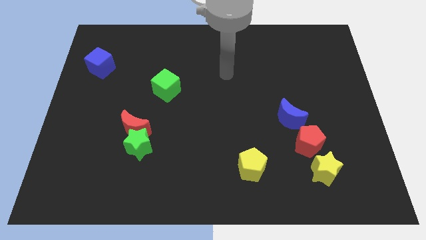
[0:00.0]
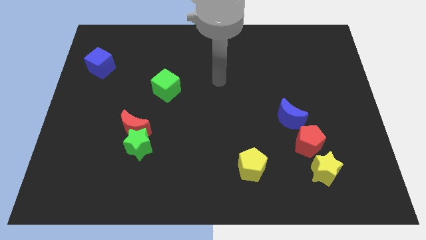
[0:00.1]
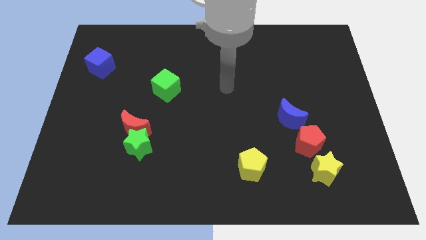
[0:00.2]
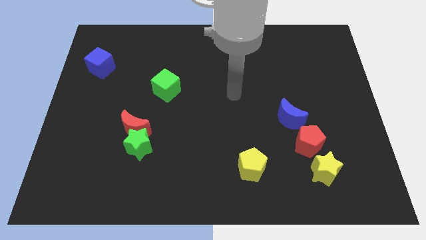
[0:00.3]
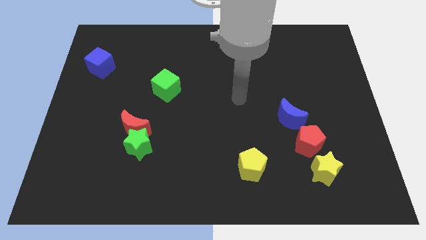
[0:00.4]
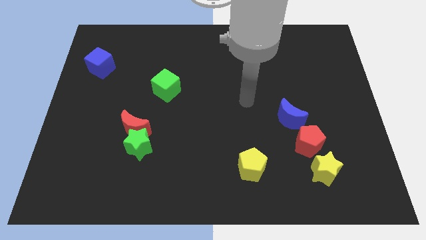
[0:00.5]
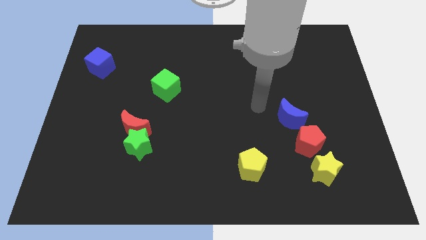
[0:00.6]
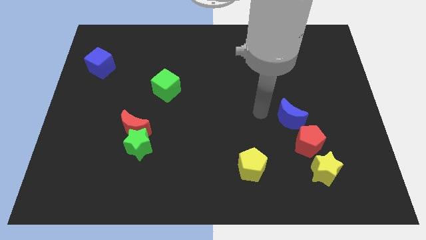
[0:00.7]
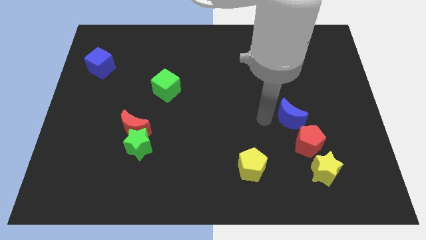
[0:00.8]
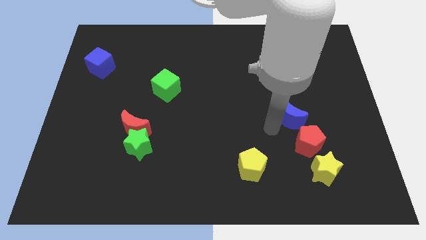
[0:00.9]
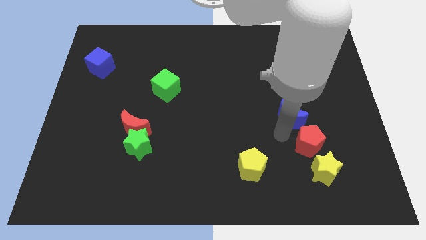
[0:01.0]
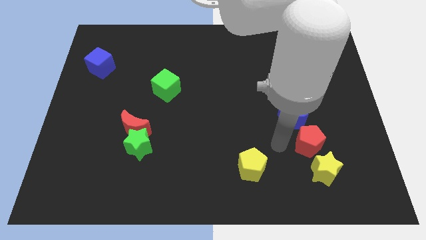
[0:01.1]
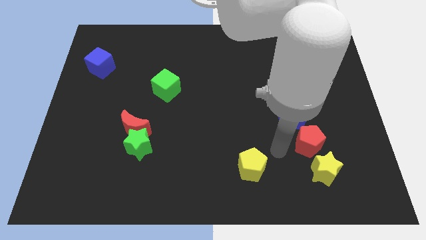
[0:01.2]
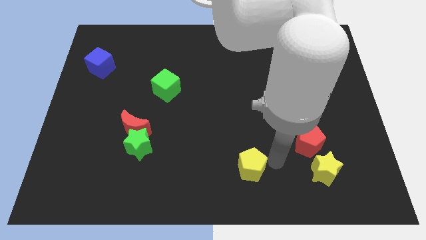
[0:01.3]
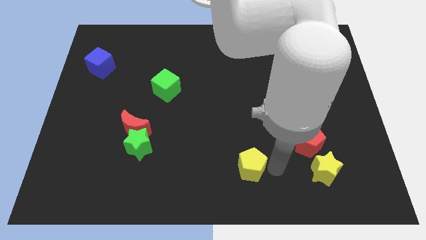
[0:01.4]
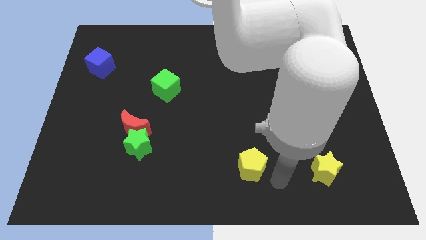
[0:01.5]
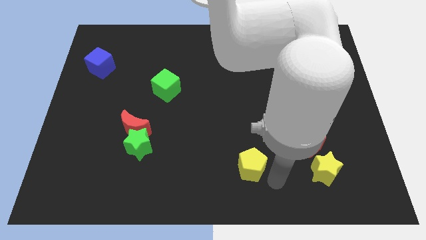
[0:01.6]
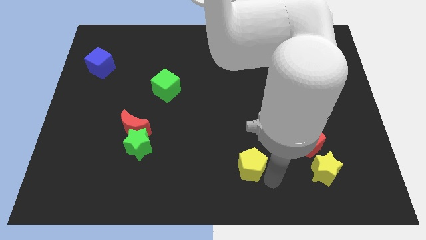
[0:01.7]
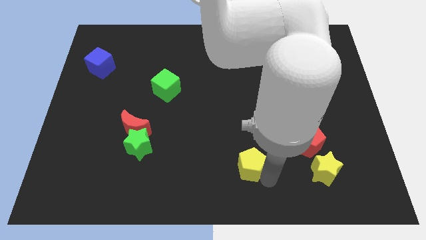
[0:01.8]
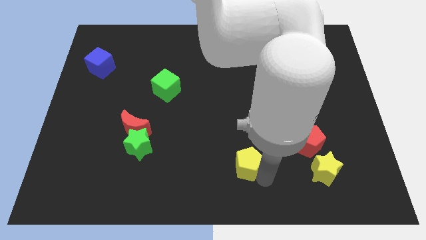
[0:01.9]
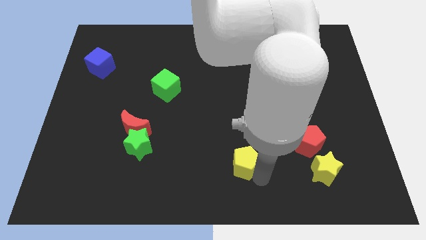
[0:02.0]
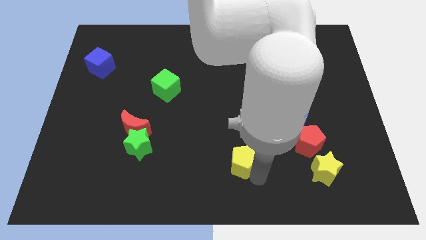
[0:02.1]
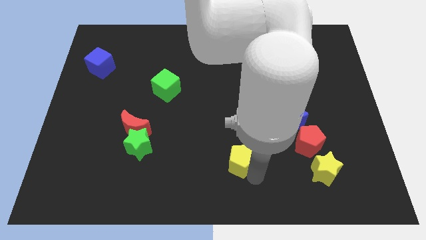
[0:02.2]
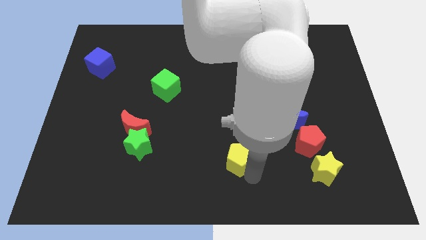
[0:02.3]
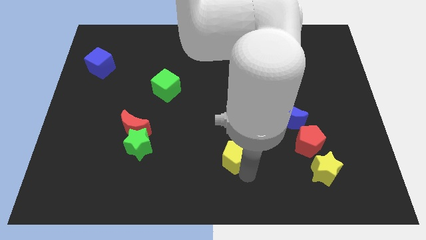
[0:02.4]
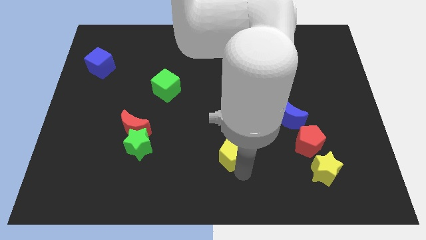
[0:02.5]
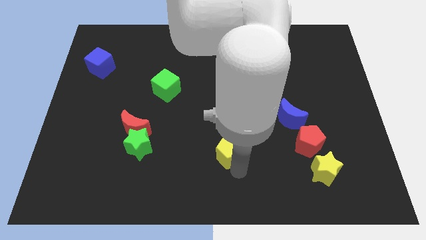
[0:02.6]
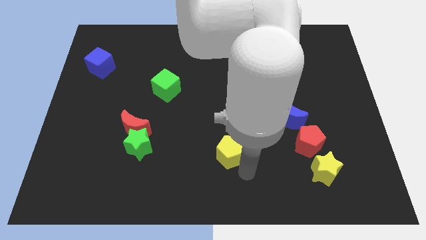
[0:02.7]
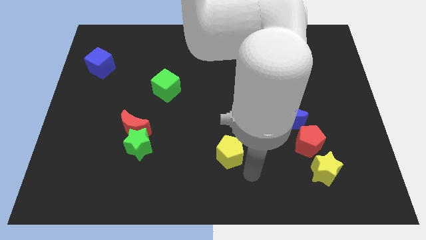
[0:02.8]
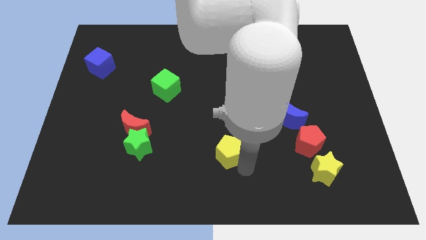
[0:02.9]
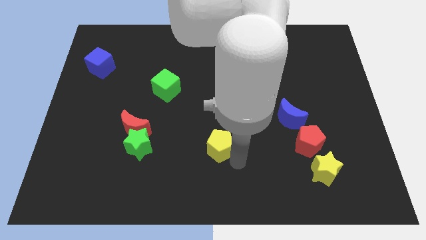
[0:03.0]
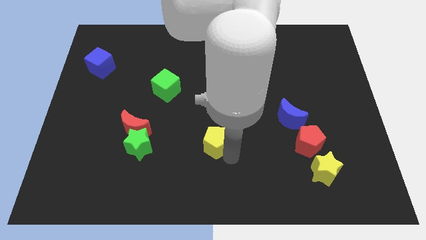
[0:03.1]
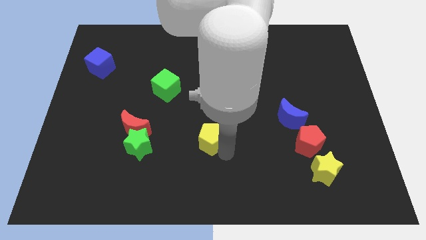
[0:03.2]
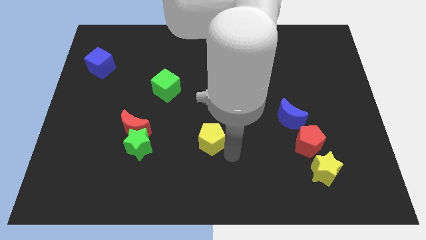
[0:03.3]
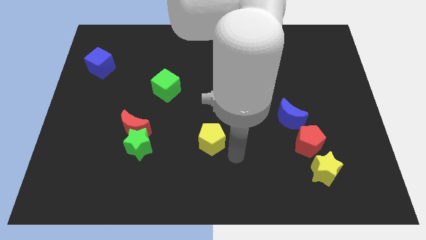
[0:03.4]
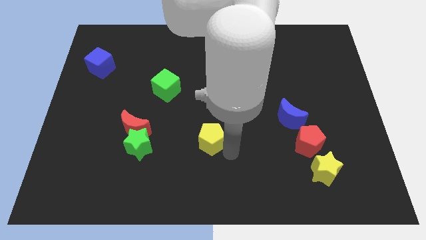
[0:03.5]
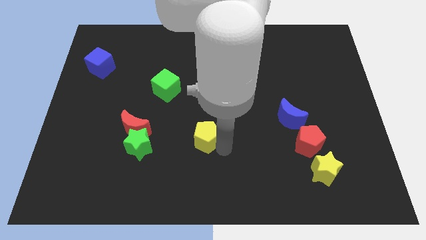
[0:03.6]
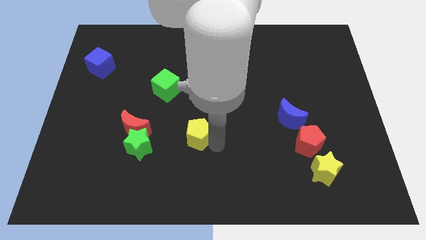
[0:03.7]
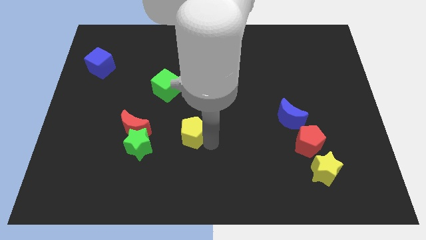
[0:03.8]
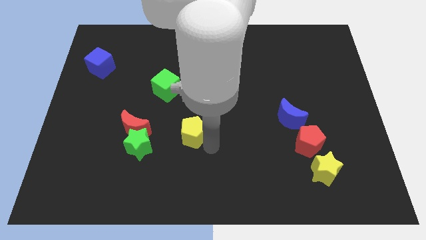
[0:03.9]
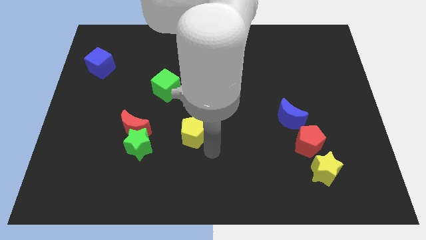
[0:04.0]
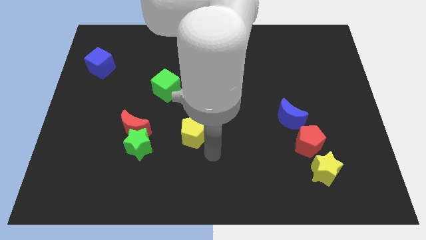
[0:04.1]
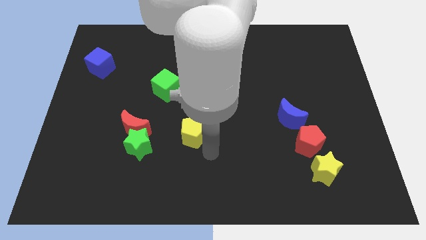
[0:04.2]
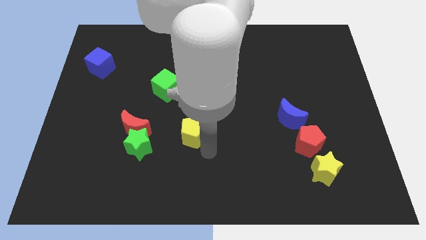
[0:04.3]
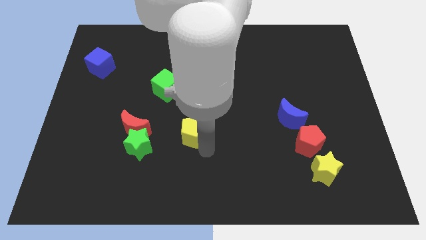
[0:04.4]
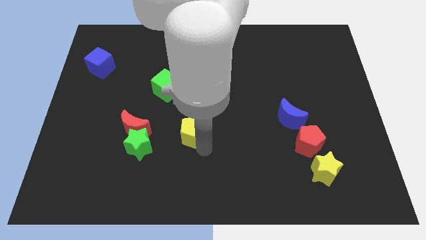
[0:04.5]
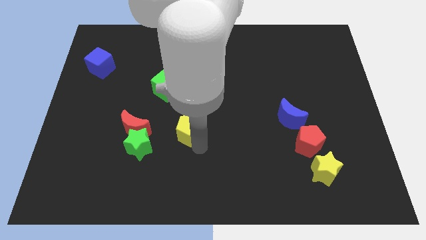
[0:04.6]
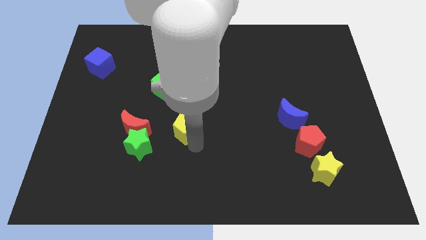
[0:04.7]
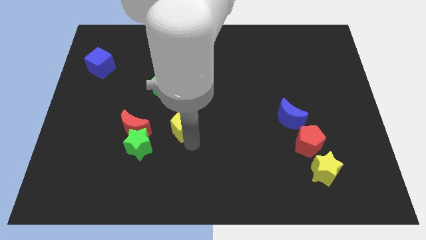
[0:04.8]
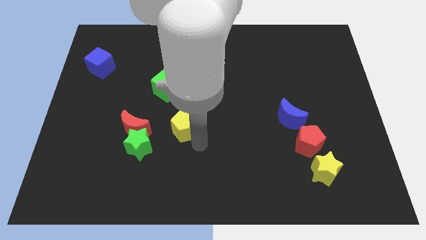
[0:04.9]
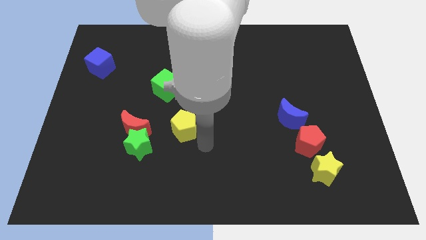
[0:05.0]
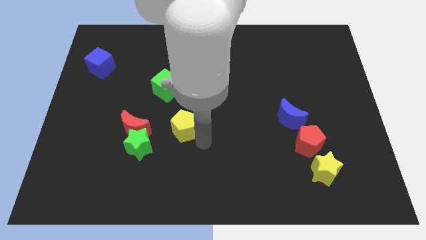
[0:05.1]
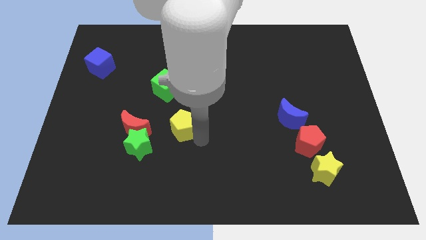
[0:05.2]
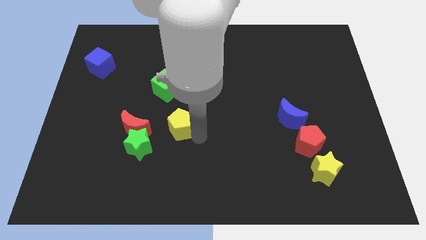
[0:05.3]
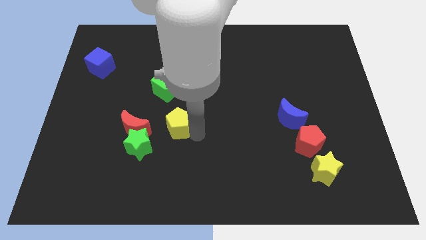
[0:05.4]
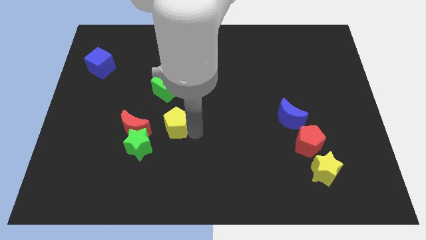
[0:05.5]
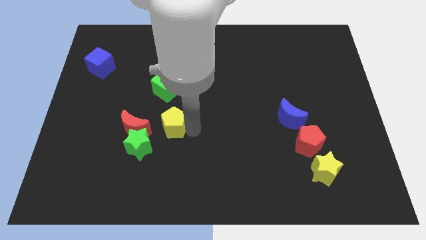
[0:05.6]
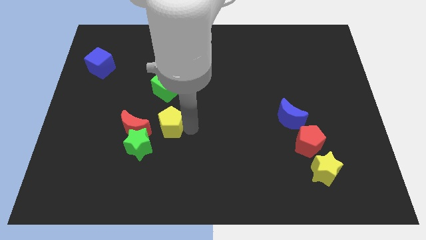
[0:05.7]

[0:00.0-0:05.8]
push the yellow pentagon diagonally up and to the right of the red moon

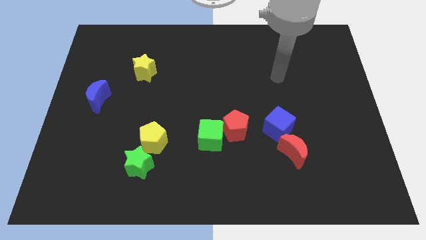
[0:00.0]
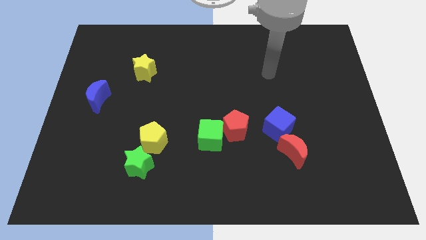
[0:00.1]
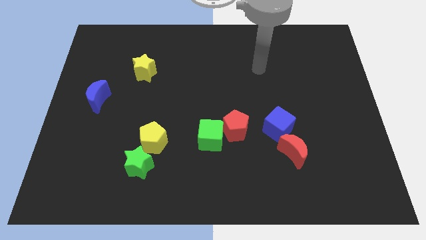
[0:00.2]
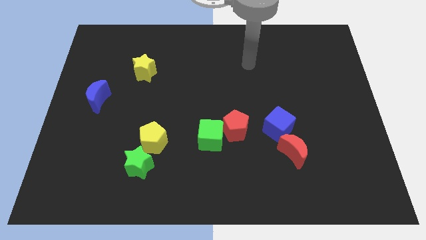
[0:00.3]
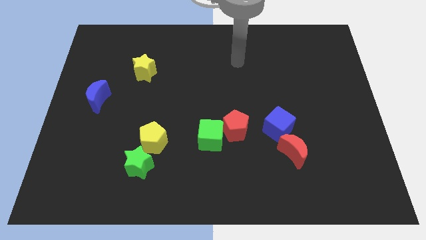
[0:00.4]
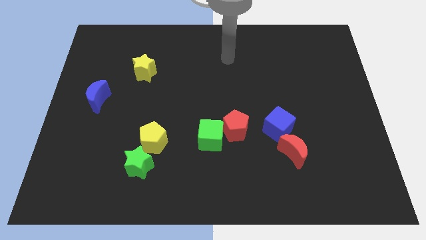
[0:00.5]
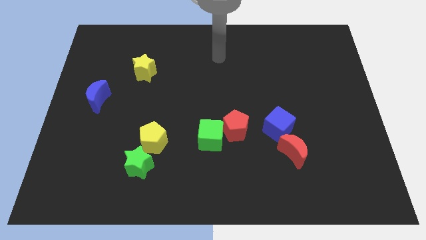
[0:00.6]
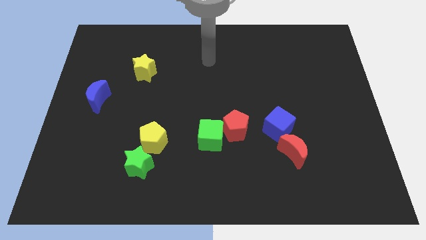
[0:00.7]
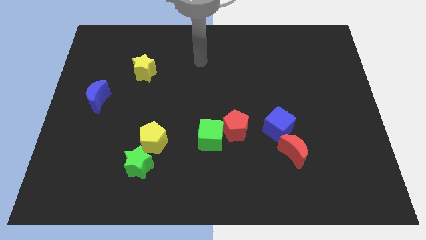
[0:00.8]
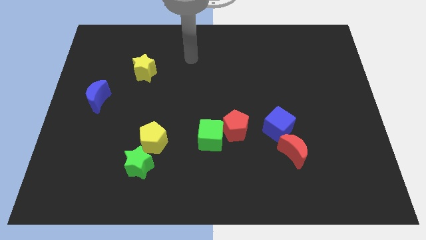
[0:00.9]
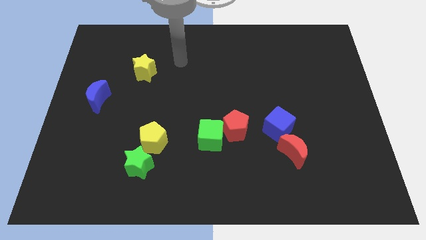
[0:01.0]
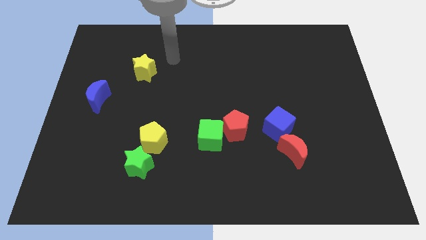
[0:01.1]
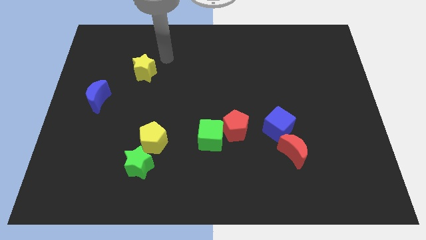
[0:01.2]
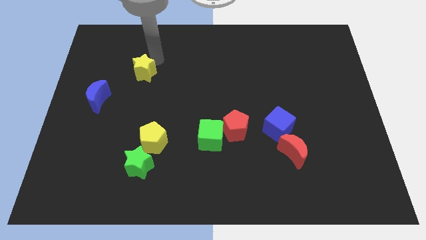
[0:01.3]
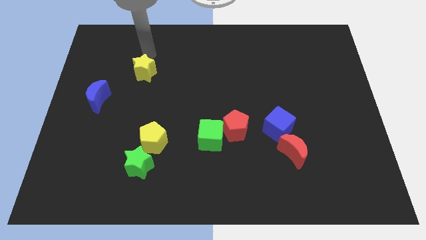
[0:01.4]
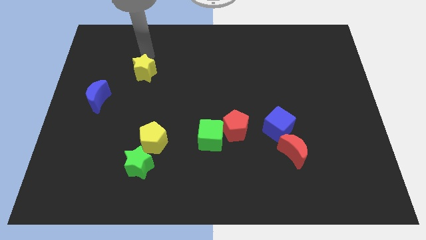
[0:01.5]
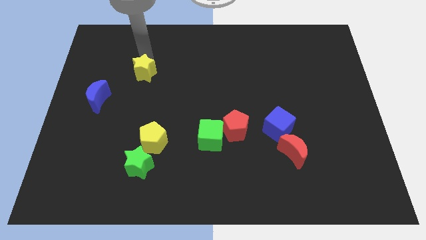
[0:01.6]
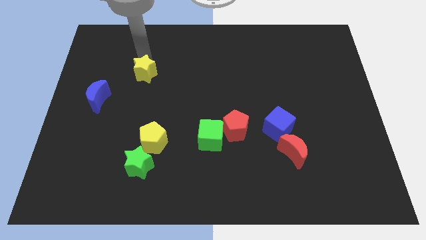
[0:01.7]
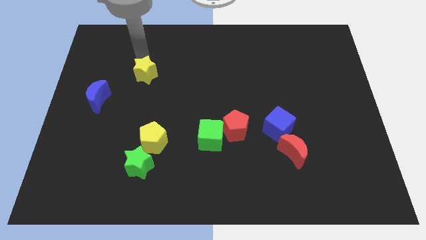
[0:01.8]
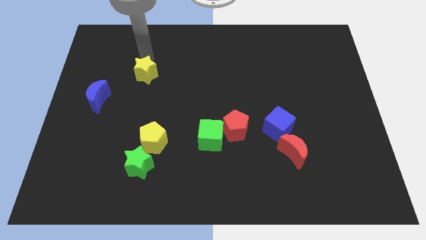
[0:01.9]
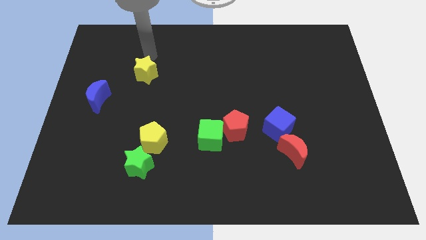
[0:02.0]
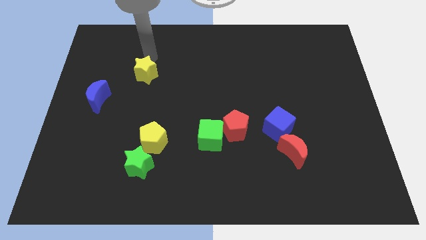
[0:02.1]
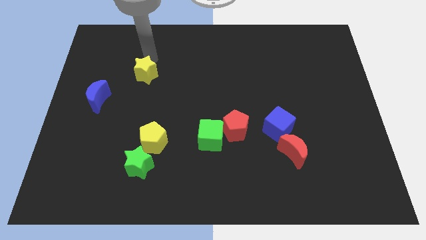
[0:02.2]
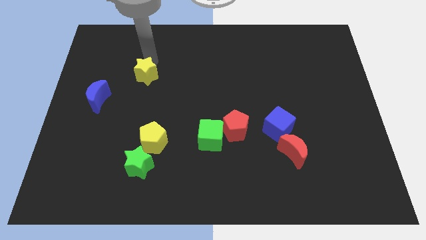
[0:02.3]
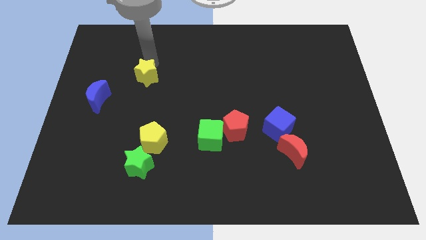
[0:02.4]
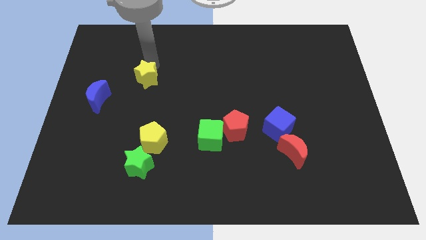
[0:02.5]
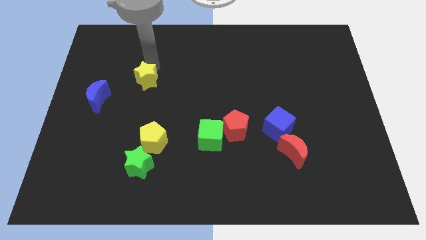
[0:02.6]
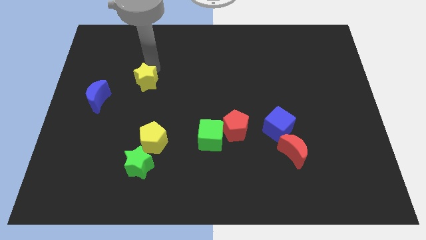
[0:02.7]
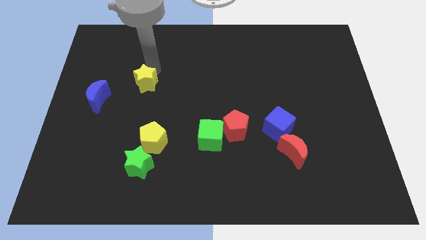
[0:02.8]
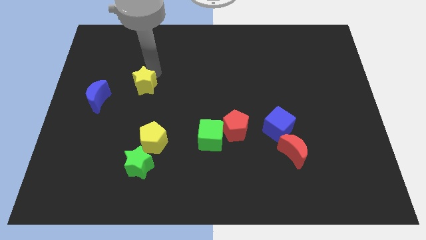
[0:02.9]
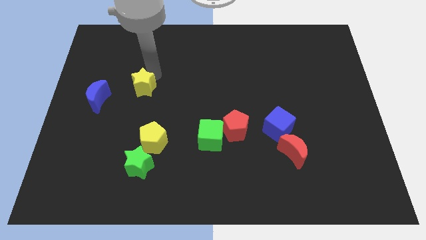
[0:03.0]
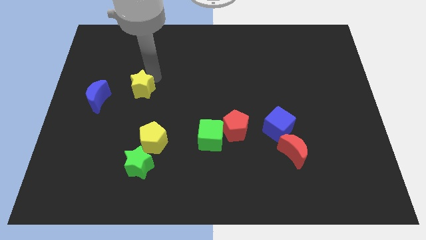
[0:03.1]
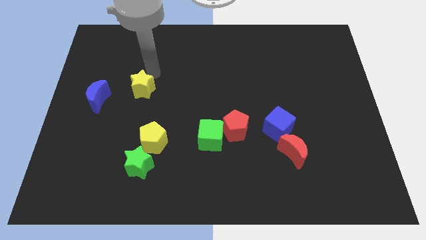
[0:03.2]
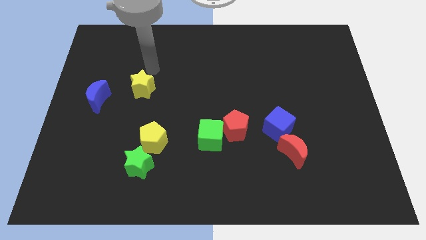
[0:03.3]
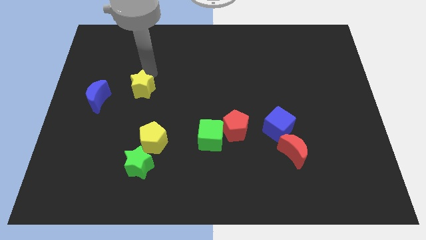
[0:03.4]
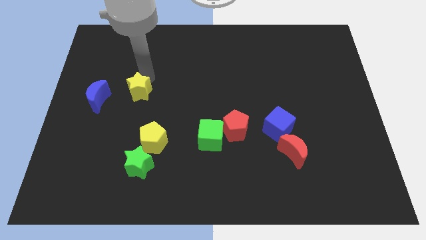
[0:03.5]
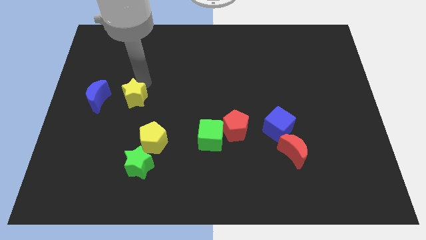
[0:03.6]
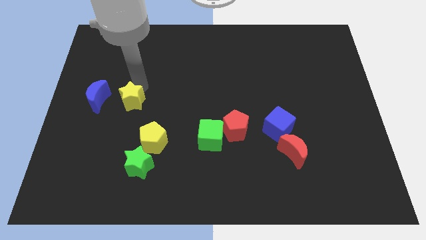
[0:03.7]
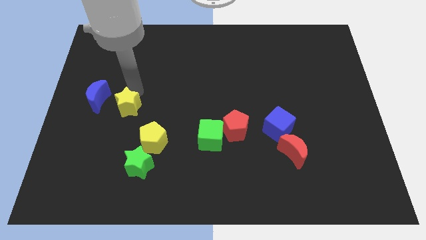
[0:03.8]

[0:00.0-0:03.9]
push the yellow star diagonally up and to the left of the yellow pentagon
